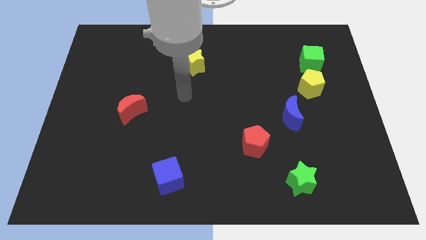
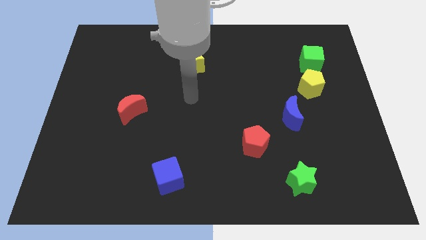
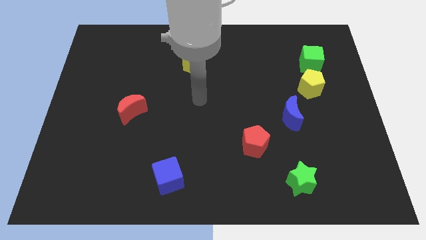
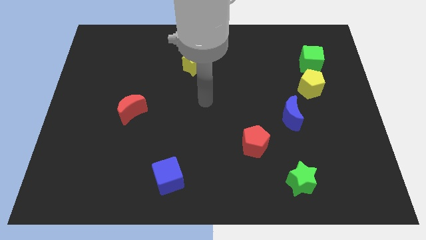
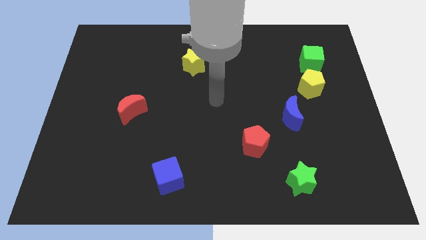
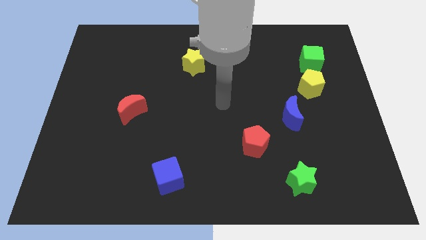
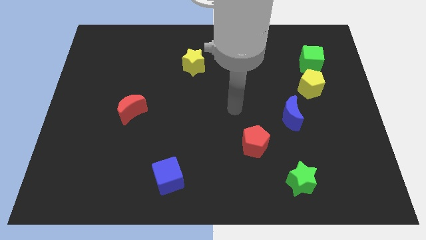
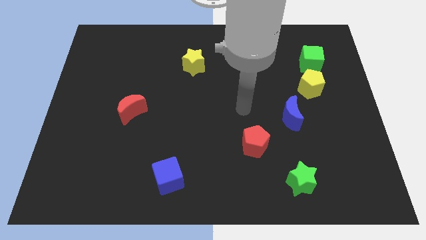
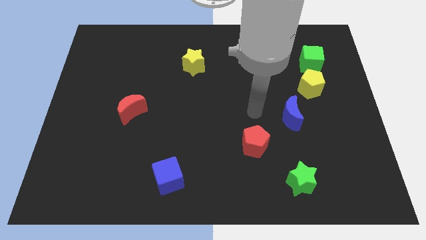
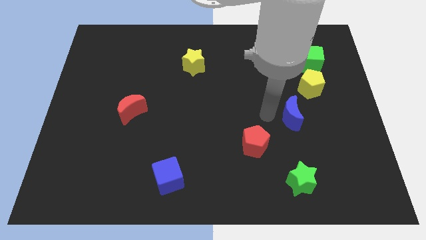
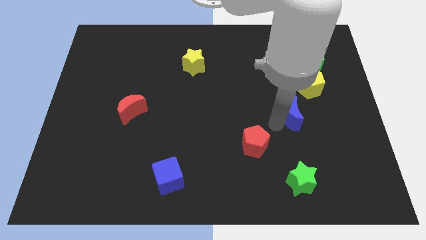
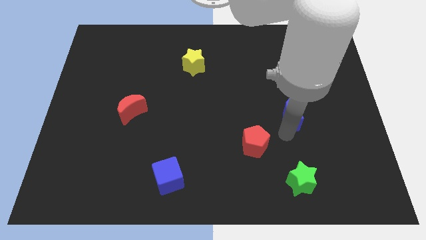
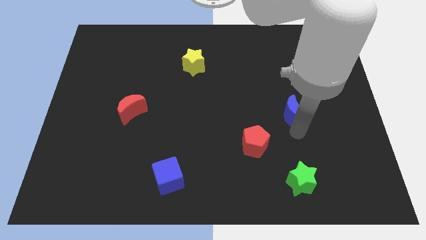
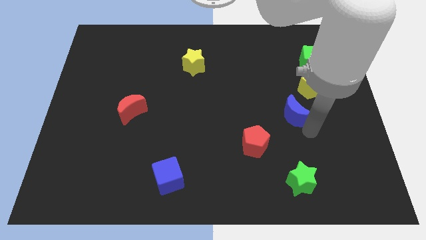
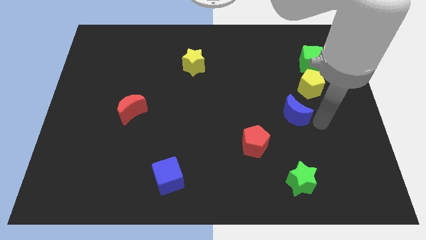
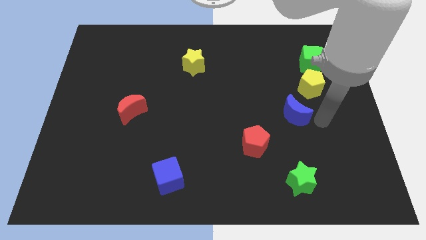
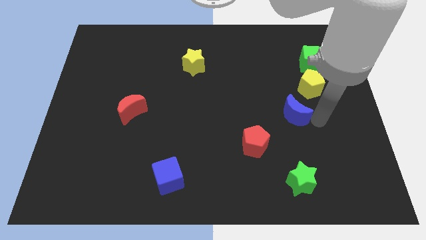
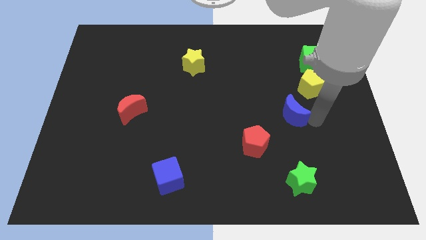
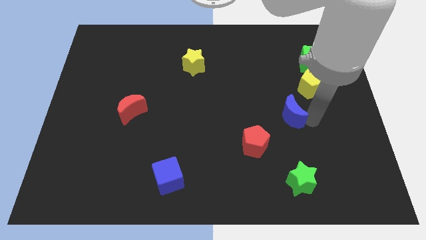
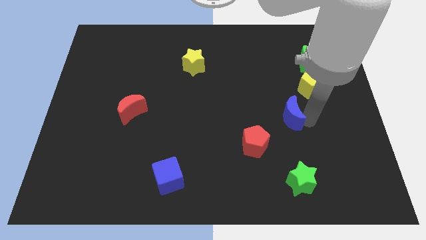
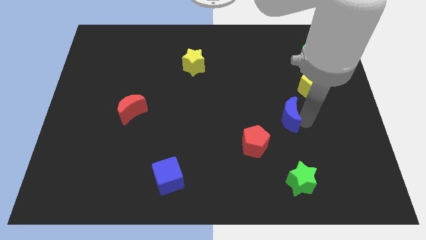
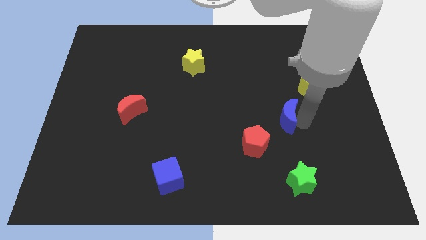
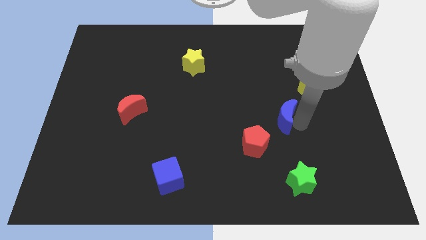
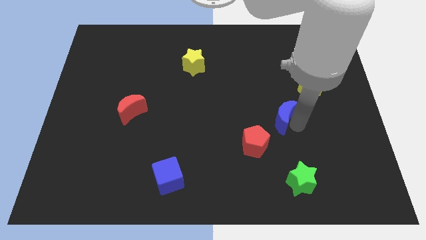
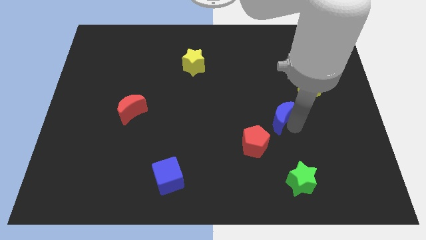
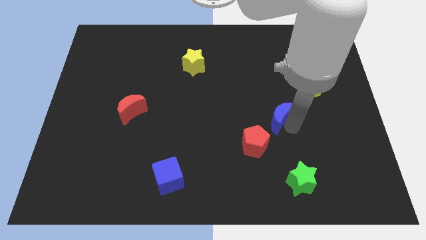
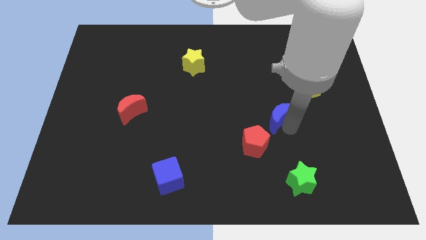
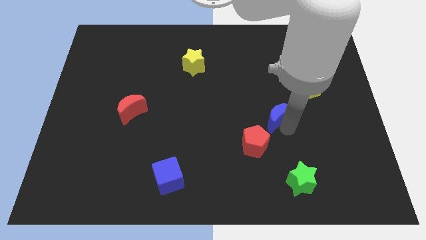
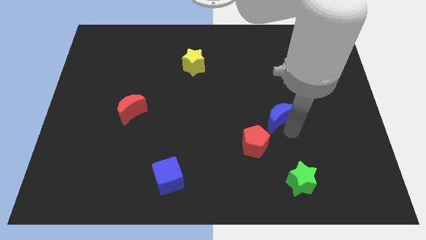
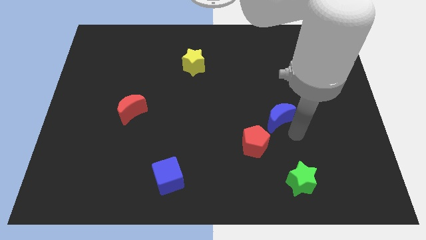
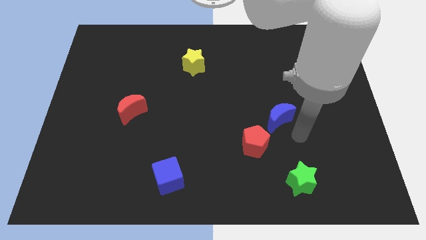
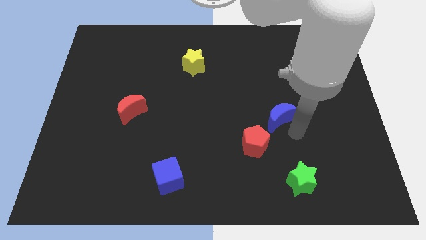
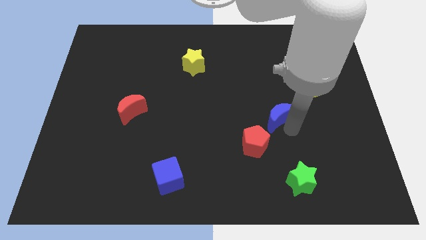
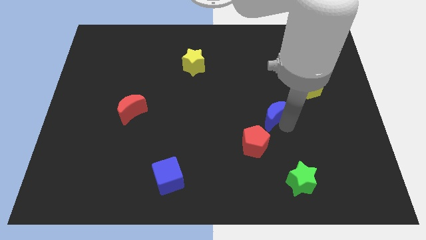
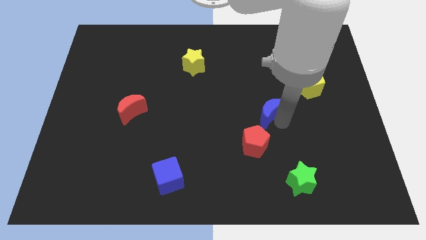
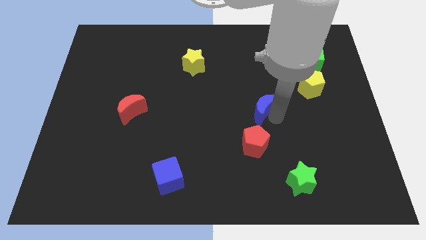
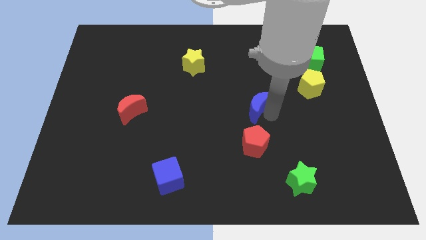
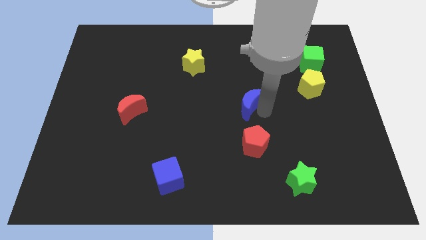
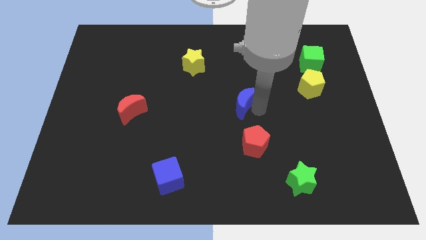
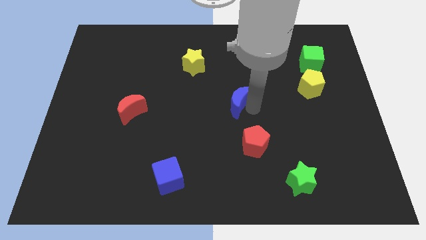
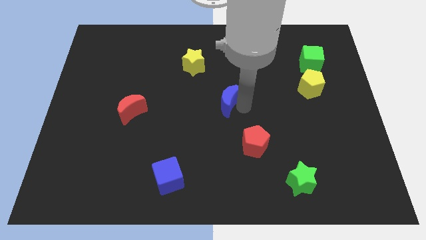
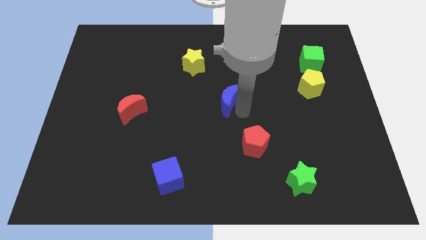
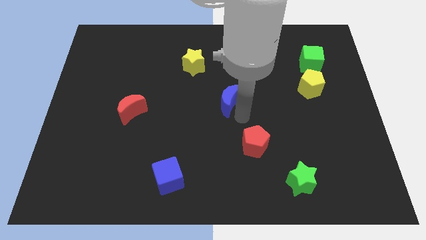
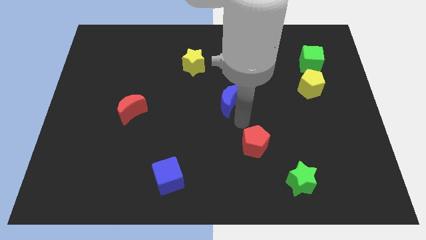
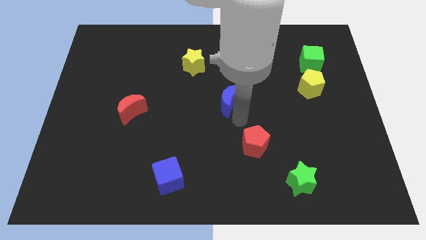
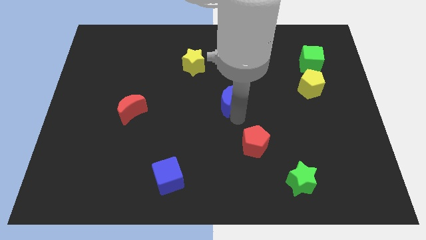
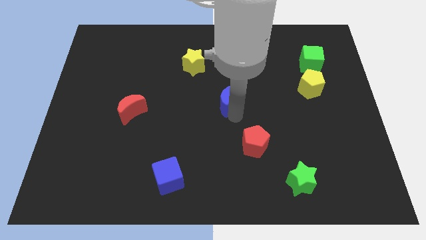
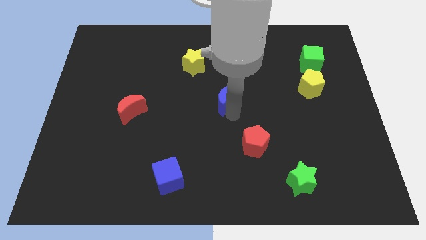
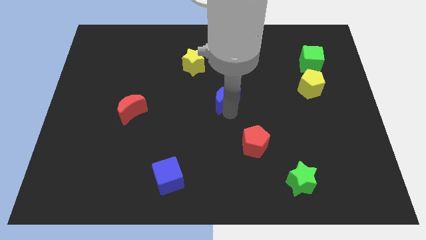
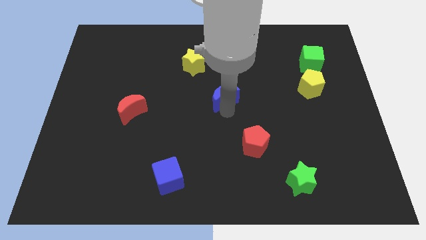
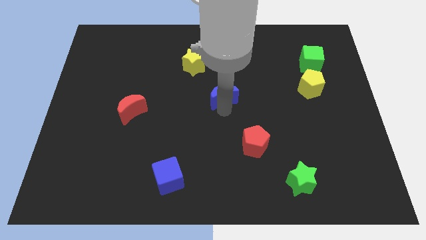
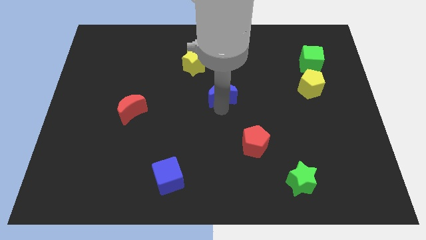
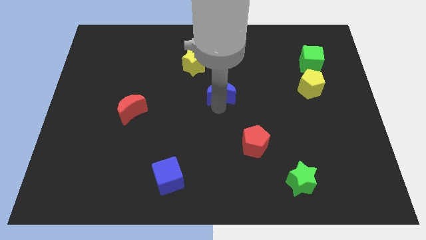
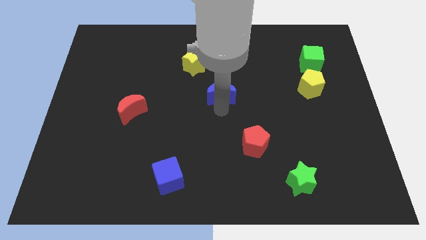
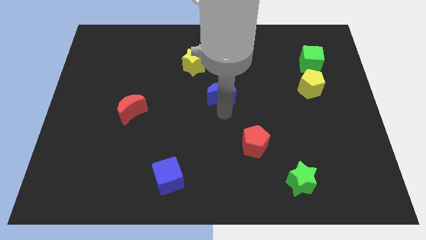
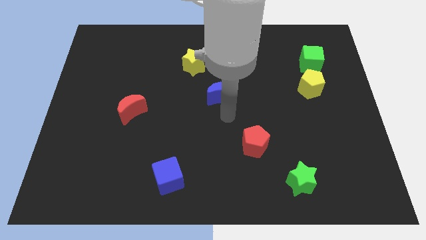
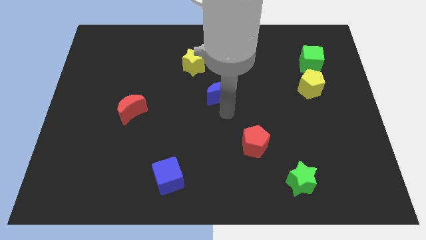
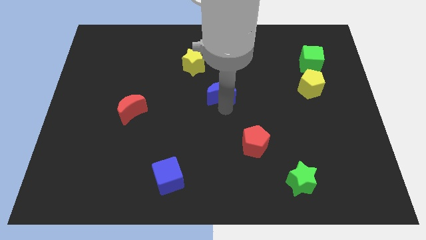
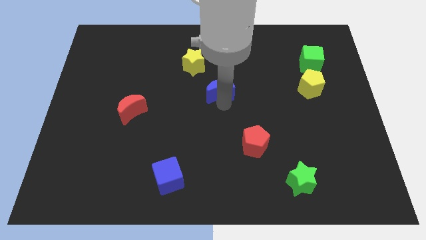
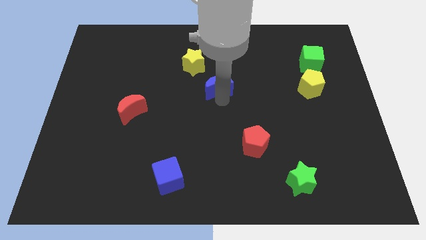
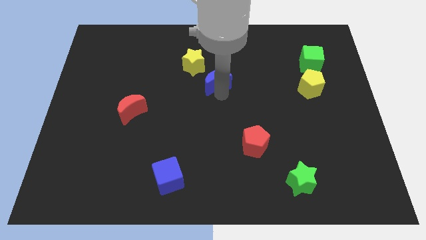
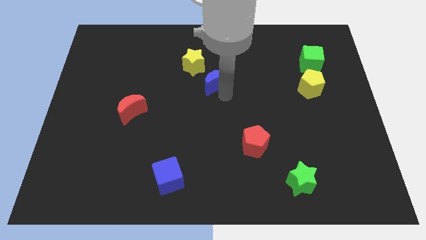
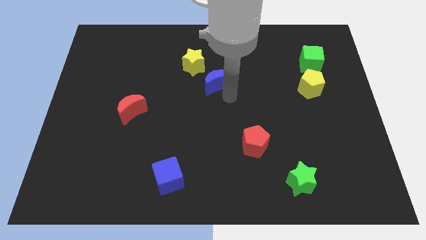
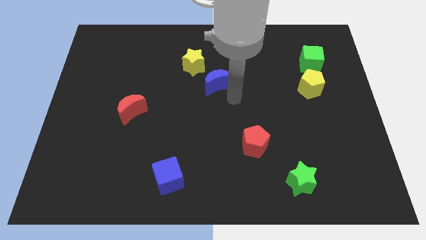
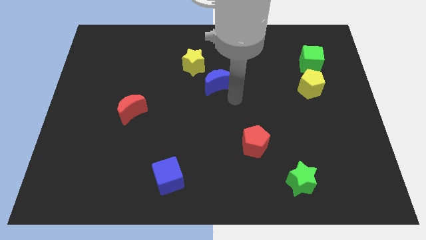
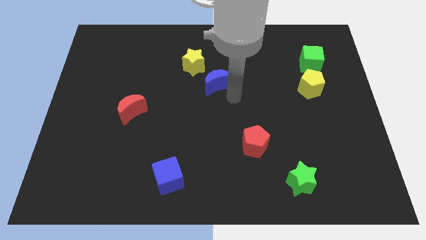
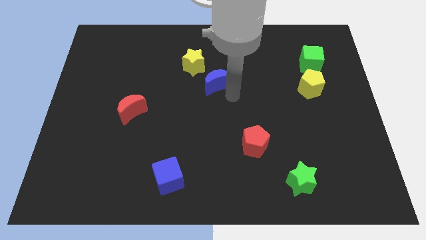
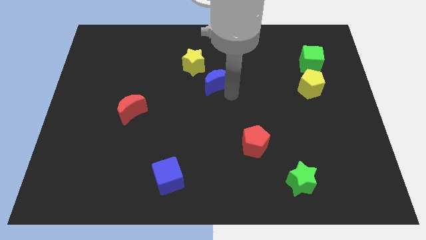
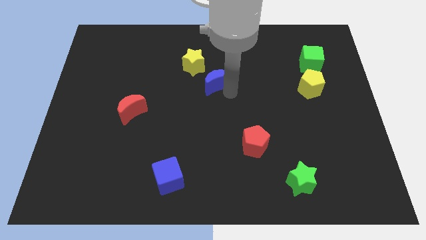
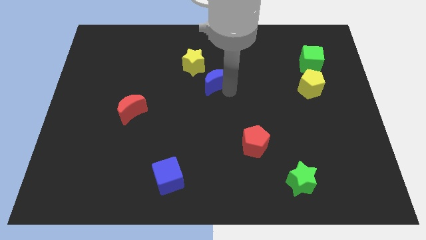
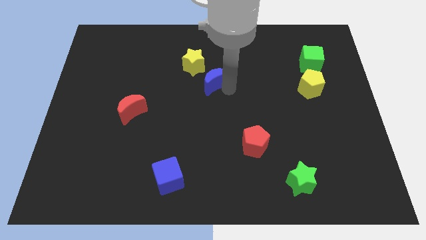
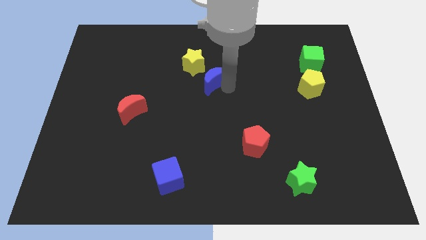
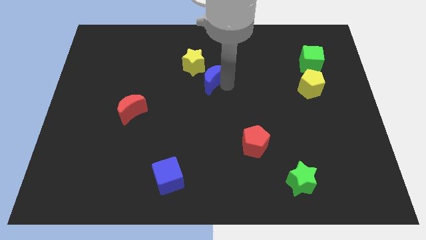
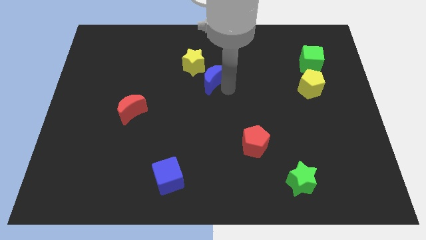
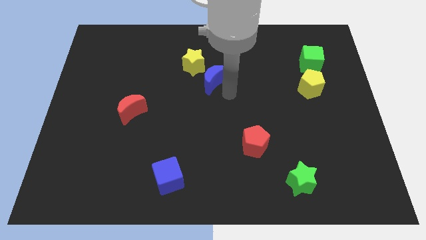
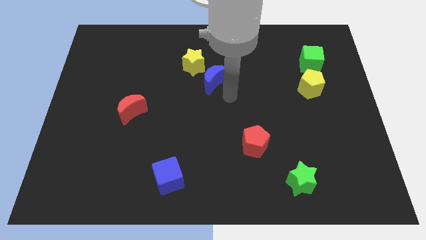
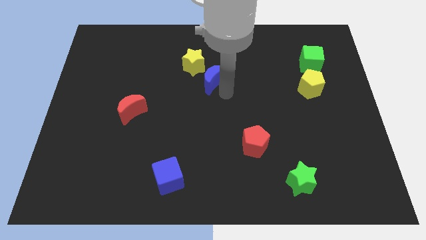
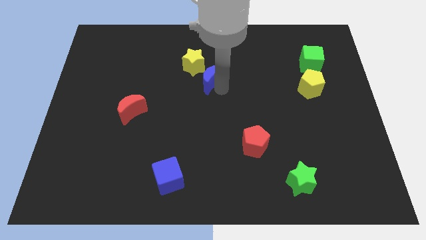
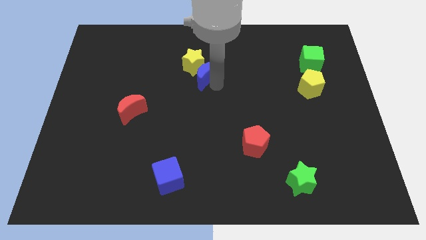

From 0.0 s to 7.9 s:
move the blue moon to the yellow star

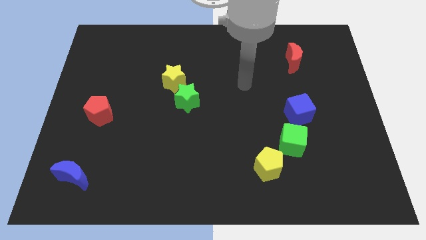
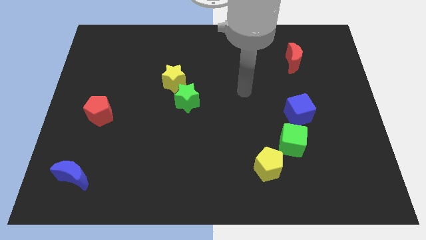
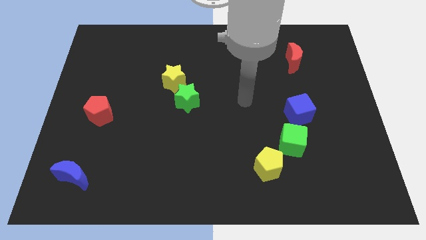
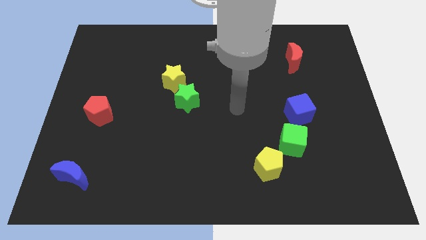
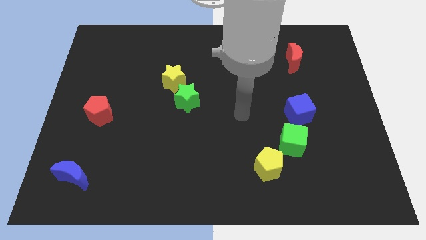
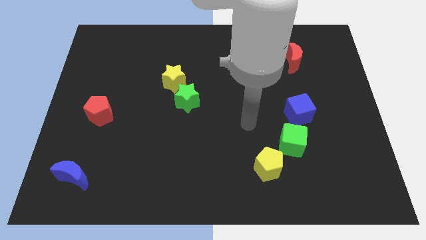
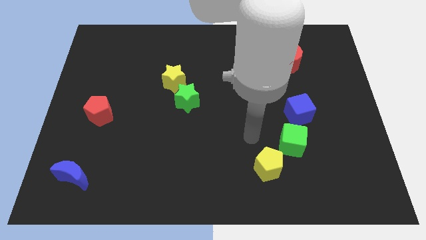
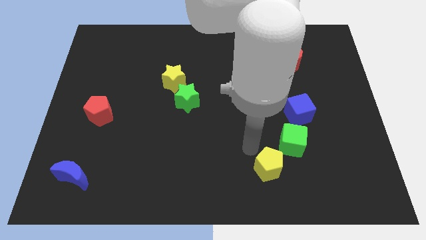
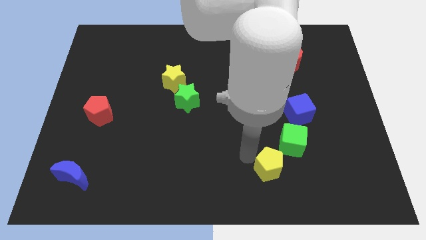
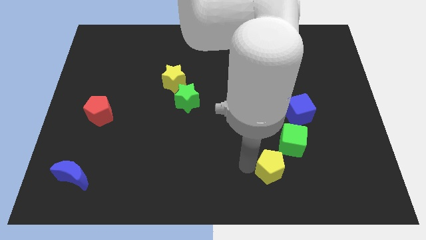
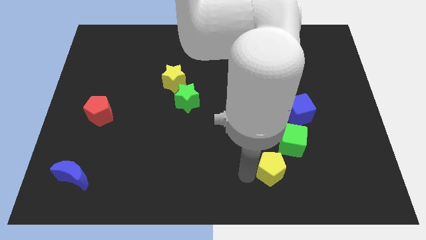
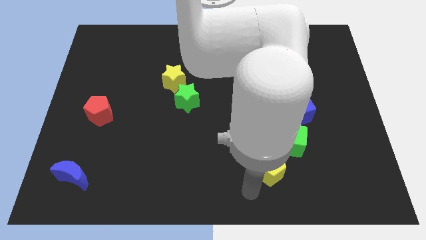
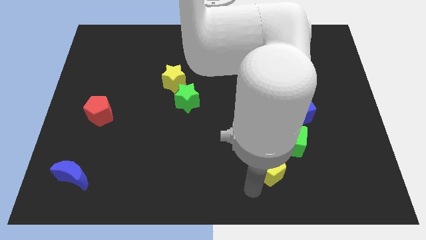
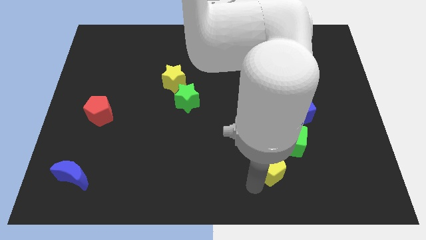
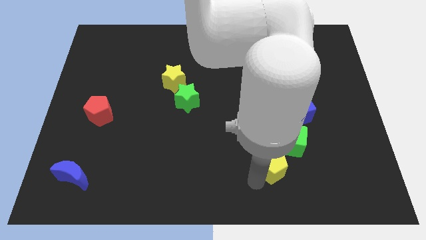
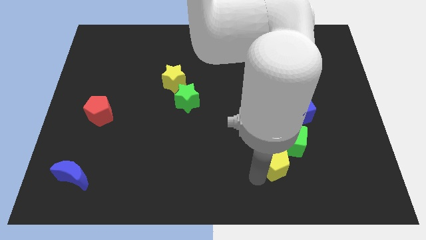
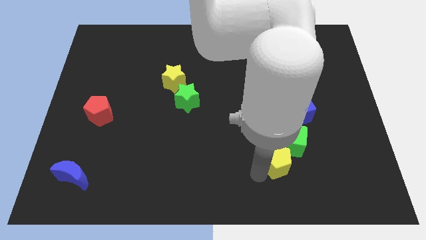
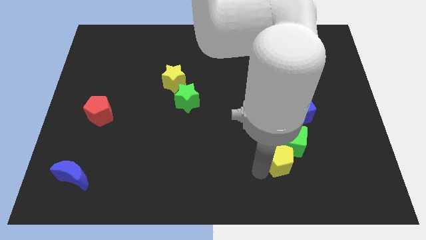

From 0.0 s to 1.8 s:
put the yellow pentagon towards the green cube
